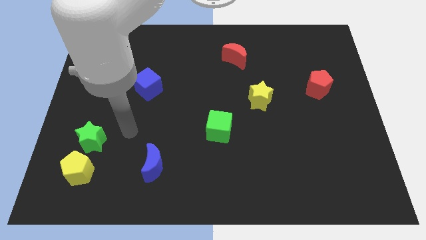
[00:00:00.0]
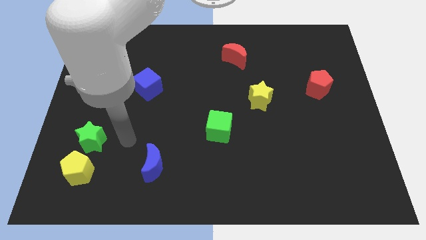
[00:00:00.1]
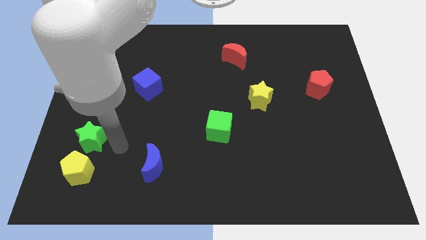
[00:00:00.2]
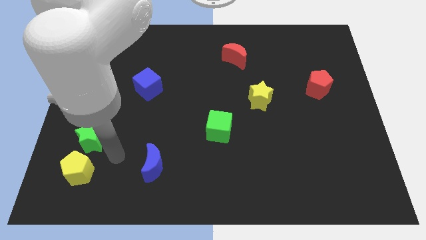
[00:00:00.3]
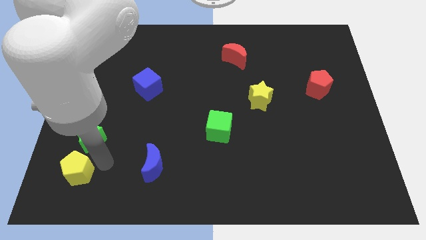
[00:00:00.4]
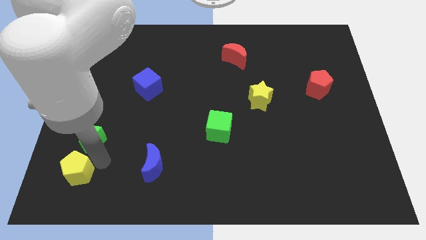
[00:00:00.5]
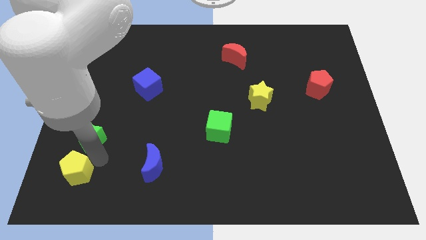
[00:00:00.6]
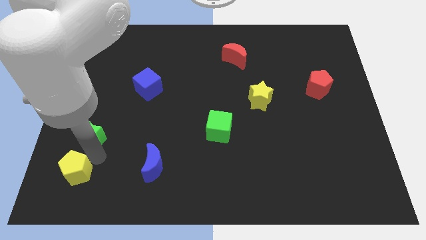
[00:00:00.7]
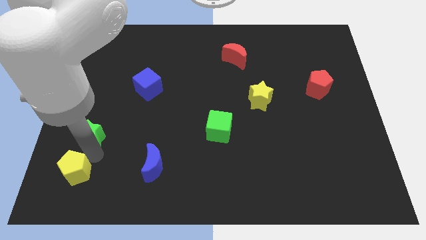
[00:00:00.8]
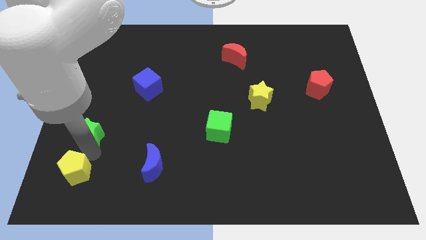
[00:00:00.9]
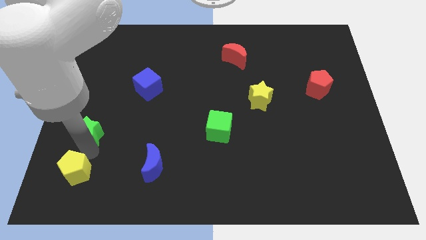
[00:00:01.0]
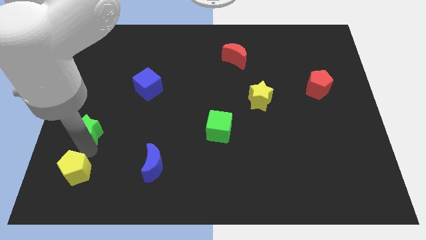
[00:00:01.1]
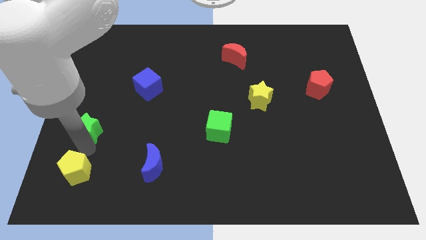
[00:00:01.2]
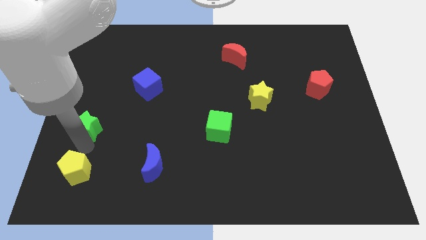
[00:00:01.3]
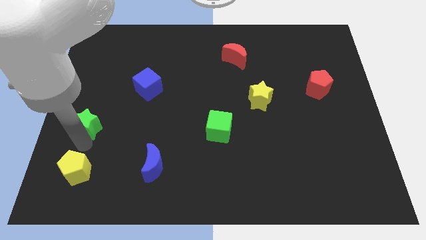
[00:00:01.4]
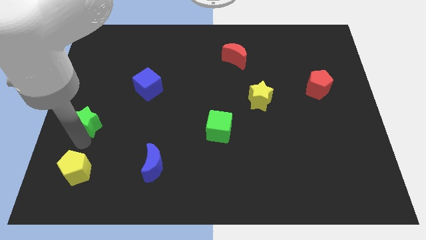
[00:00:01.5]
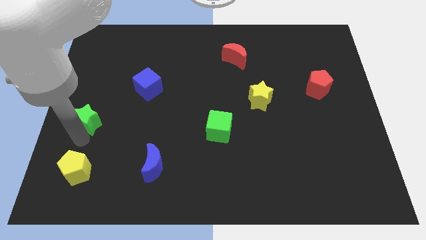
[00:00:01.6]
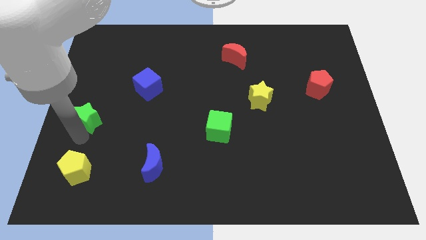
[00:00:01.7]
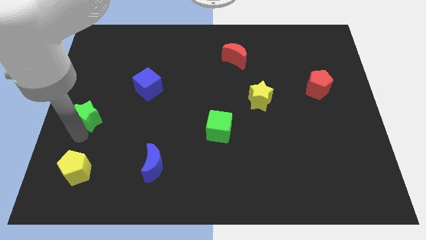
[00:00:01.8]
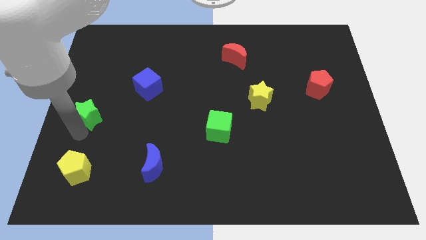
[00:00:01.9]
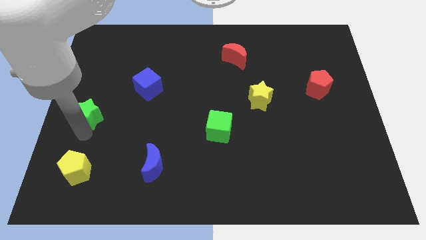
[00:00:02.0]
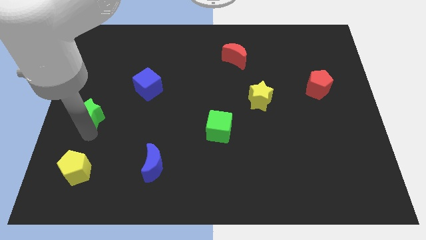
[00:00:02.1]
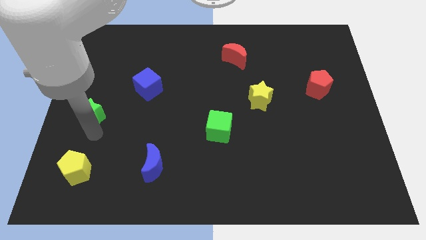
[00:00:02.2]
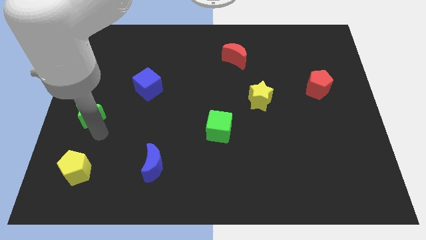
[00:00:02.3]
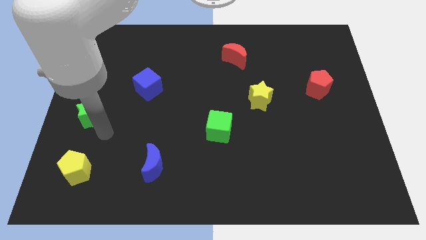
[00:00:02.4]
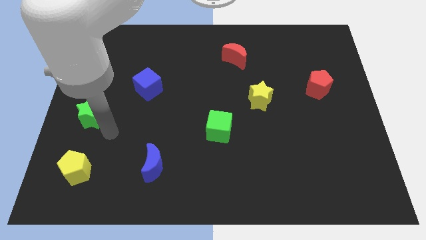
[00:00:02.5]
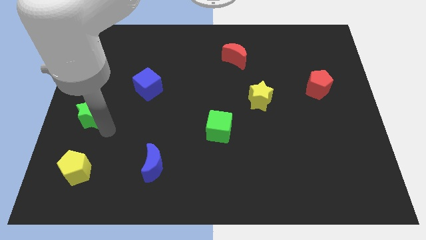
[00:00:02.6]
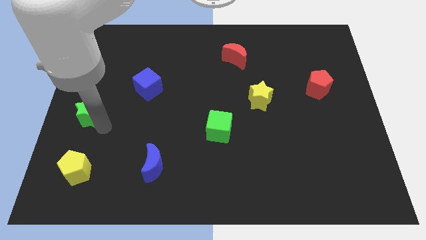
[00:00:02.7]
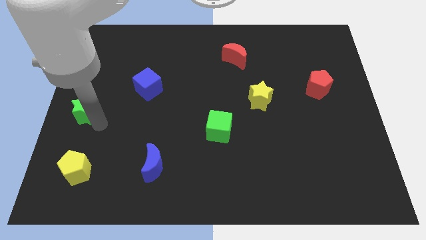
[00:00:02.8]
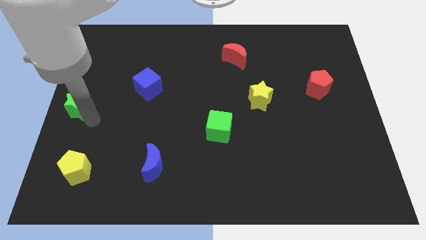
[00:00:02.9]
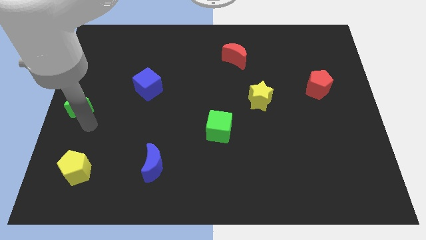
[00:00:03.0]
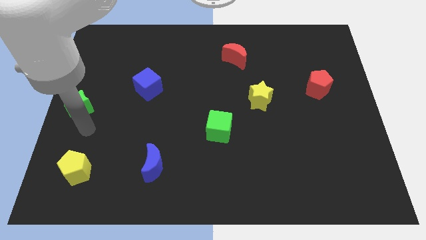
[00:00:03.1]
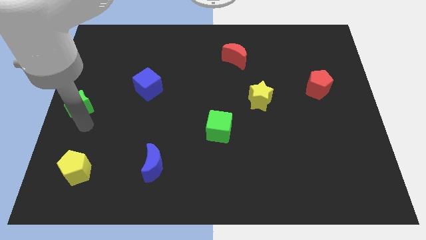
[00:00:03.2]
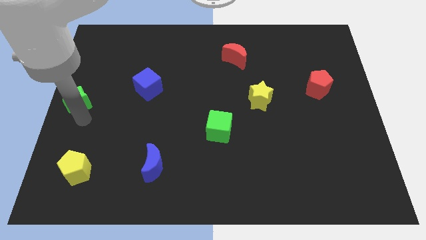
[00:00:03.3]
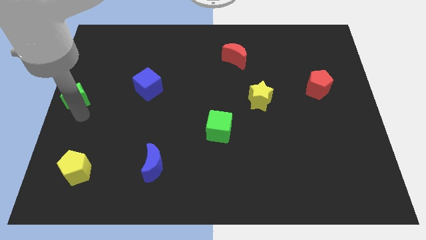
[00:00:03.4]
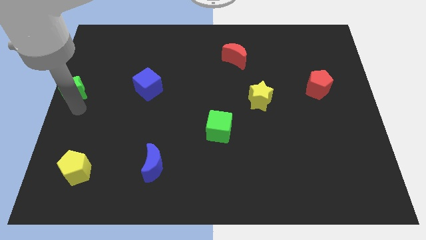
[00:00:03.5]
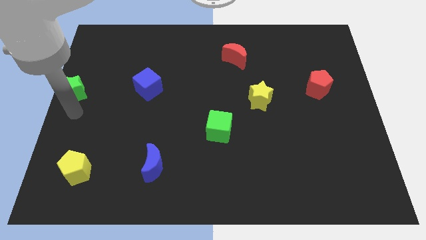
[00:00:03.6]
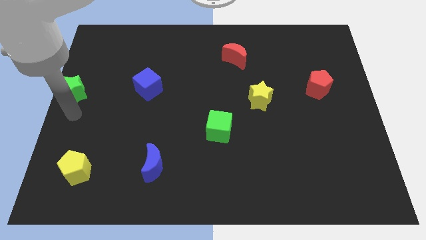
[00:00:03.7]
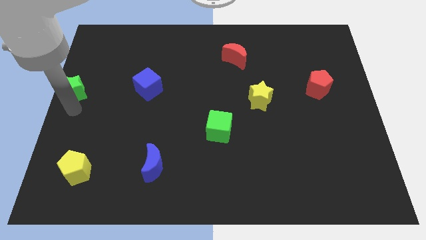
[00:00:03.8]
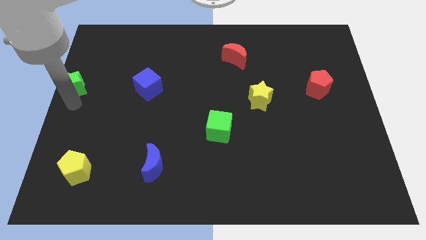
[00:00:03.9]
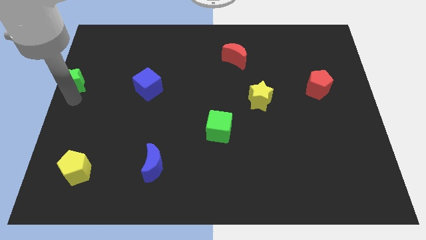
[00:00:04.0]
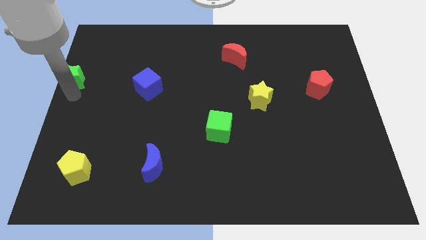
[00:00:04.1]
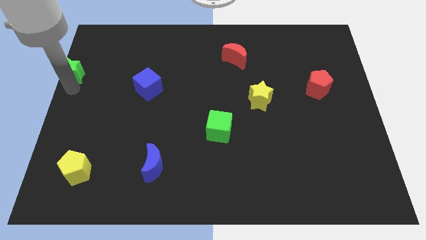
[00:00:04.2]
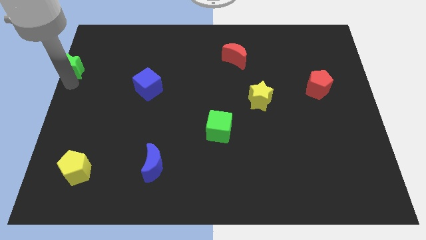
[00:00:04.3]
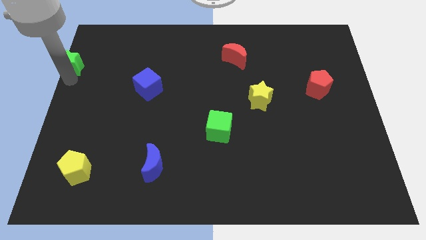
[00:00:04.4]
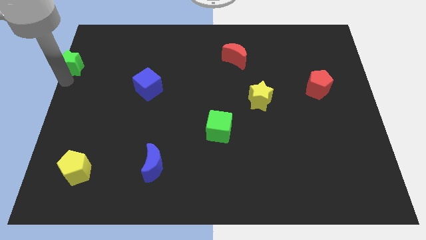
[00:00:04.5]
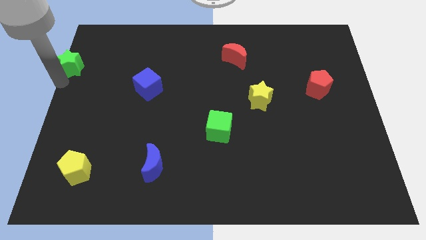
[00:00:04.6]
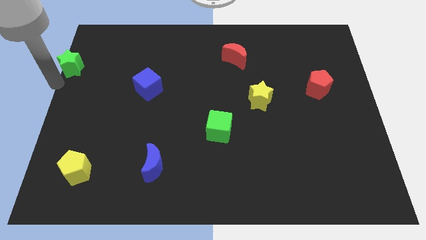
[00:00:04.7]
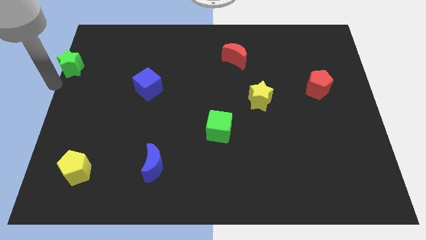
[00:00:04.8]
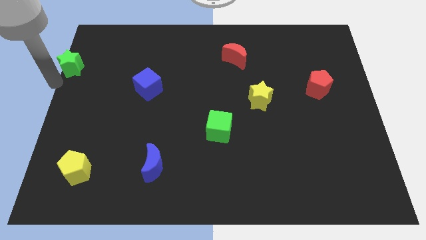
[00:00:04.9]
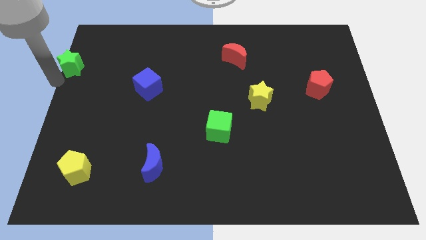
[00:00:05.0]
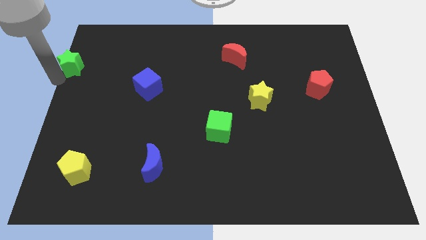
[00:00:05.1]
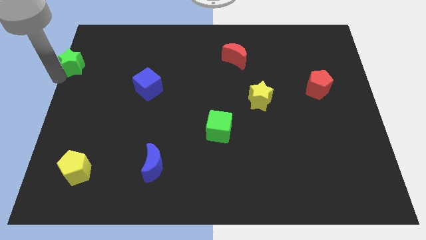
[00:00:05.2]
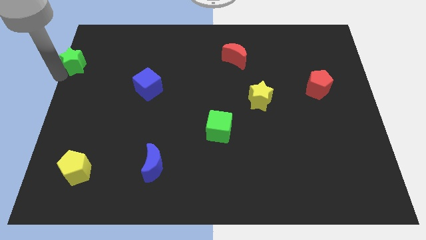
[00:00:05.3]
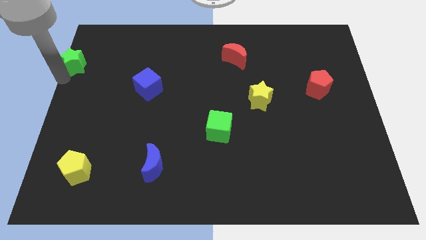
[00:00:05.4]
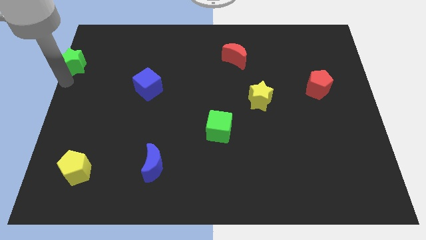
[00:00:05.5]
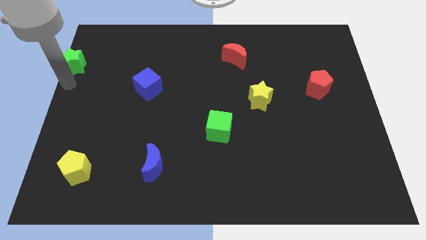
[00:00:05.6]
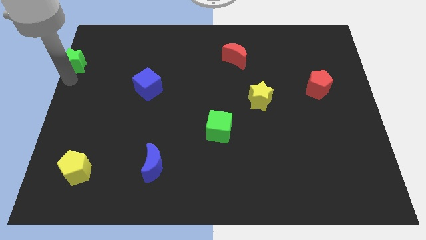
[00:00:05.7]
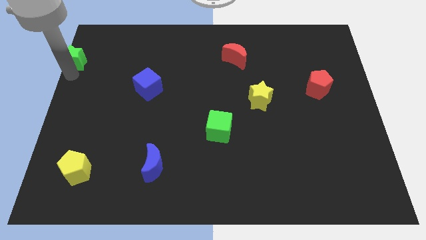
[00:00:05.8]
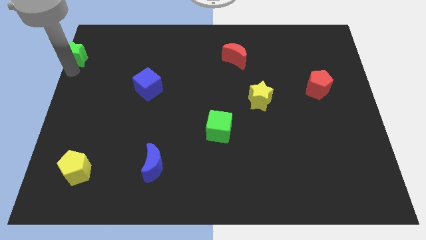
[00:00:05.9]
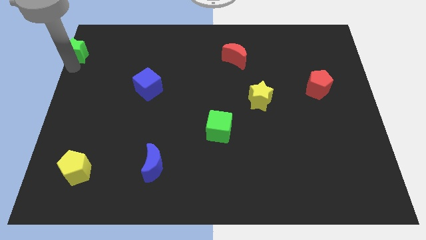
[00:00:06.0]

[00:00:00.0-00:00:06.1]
slide the green star to the top left corner

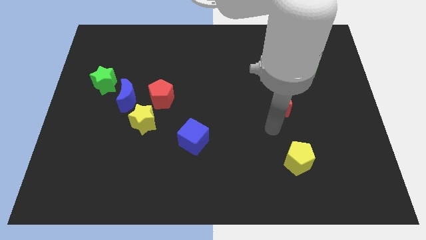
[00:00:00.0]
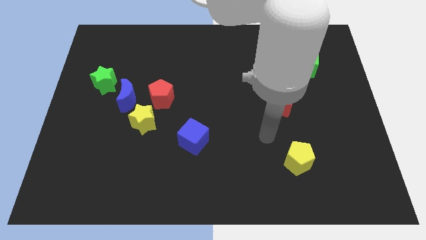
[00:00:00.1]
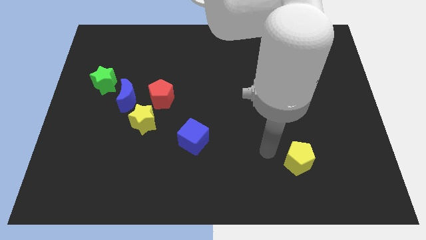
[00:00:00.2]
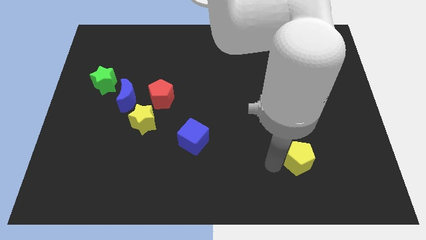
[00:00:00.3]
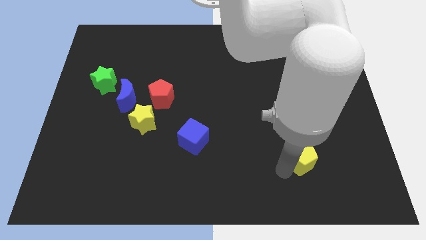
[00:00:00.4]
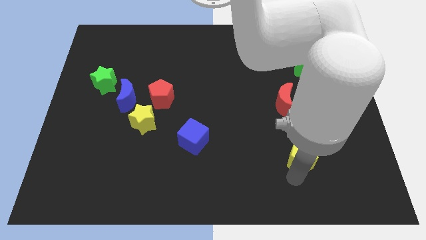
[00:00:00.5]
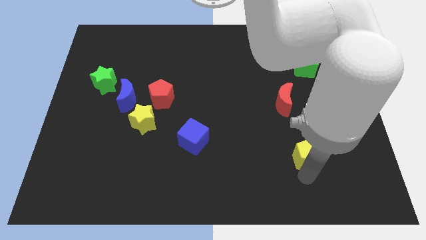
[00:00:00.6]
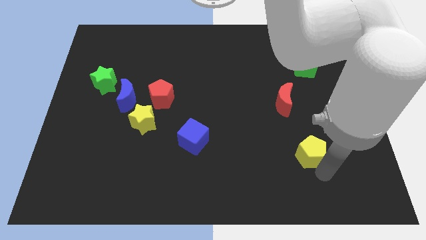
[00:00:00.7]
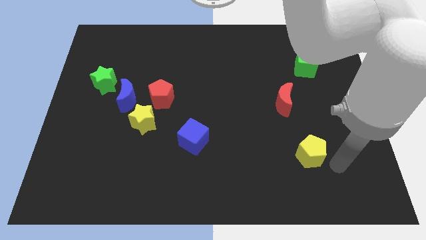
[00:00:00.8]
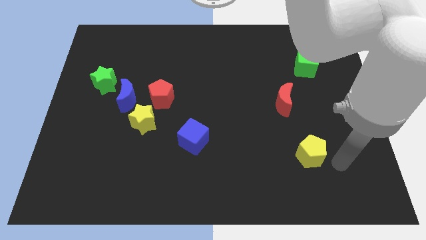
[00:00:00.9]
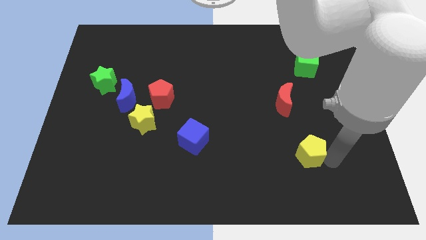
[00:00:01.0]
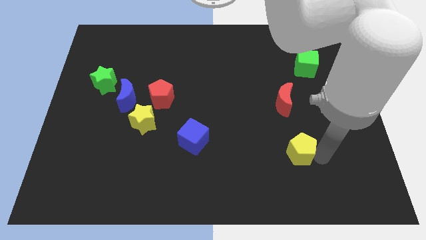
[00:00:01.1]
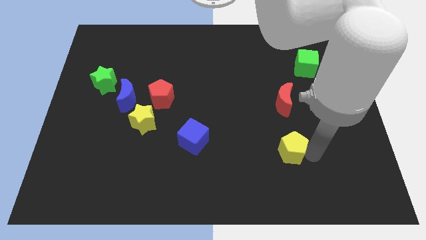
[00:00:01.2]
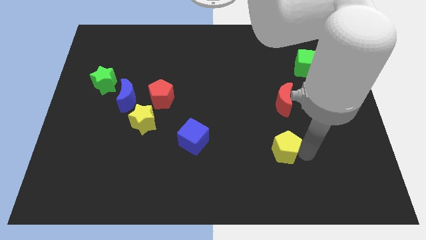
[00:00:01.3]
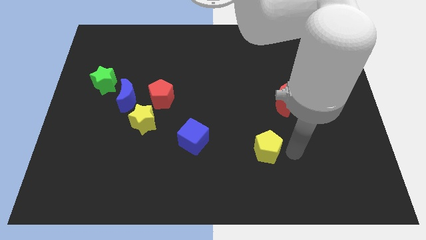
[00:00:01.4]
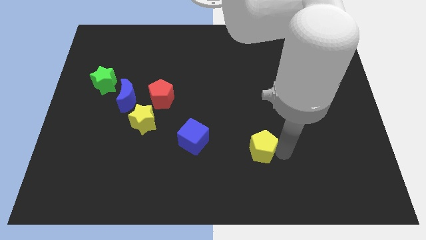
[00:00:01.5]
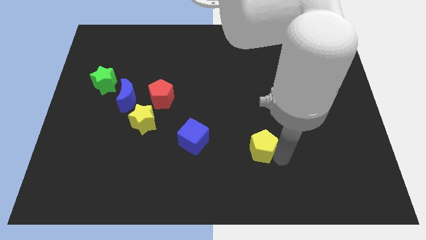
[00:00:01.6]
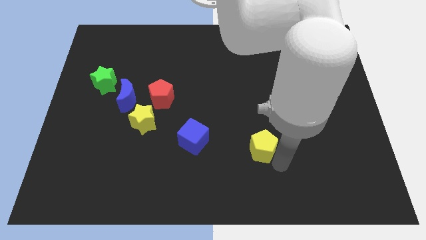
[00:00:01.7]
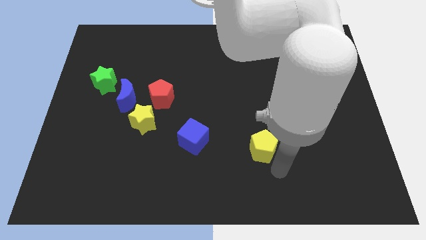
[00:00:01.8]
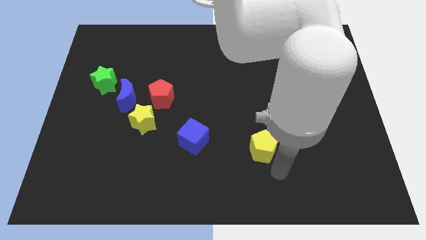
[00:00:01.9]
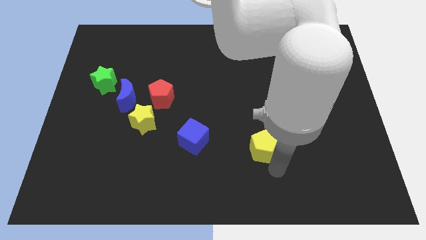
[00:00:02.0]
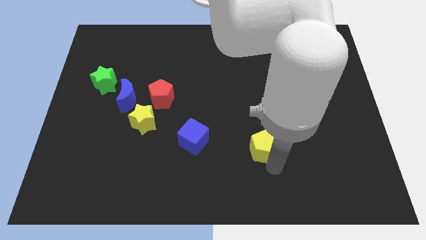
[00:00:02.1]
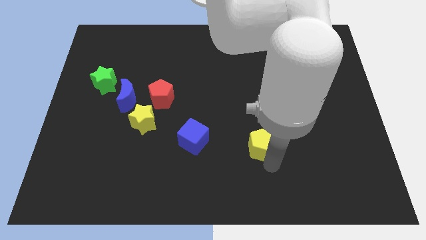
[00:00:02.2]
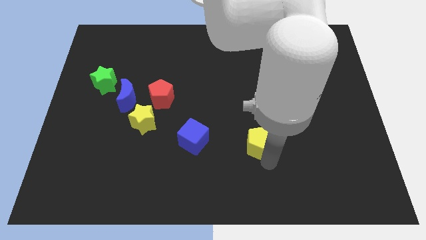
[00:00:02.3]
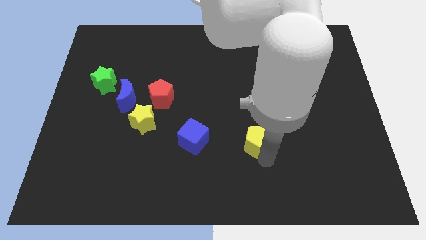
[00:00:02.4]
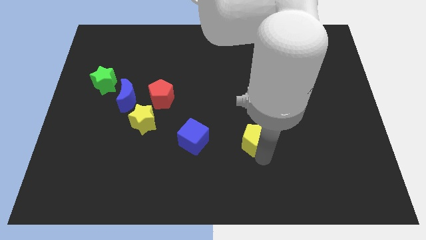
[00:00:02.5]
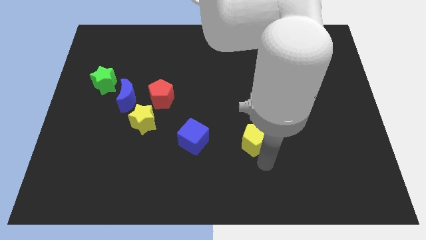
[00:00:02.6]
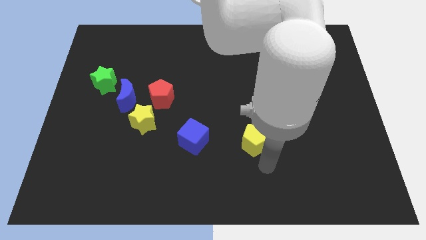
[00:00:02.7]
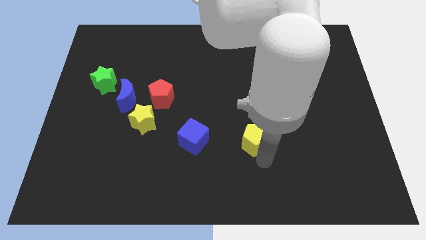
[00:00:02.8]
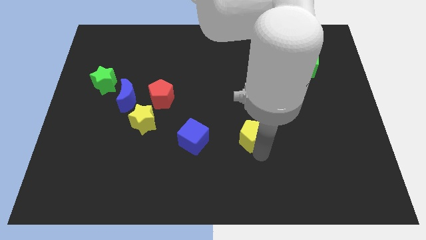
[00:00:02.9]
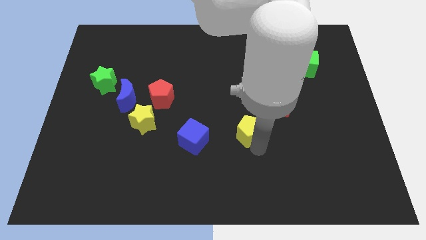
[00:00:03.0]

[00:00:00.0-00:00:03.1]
slide the yellow pentagon to the middle of the board
